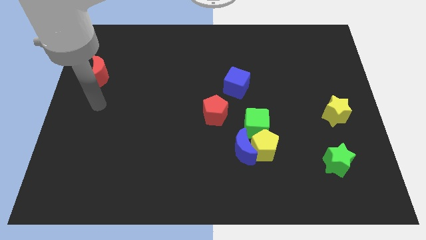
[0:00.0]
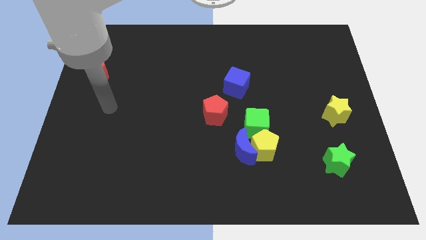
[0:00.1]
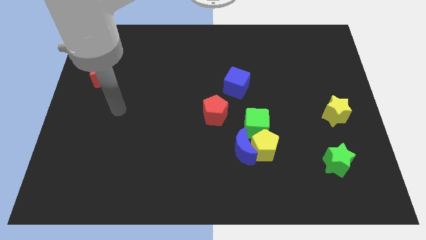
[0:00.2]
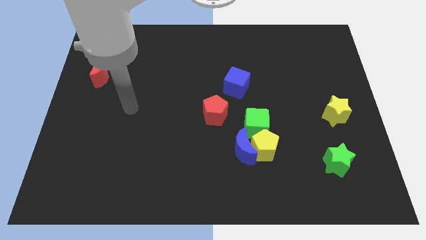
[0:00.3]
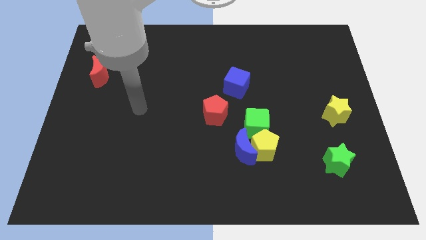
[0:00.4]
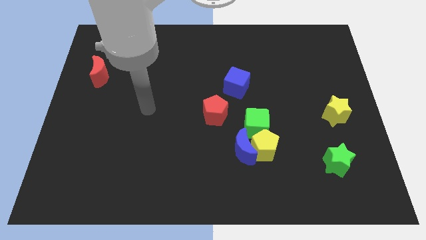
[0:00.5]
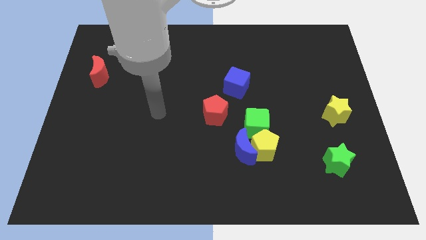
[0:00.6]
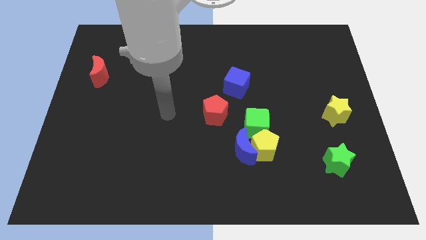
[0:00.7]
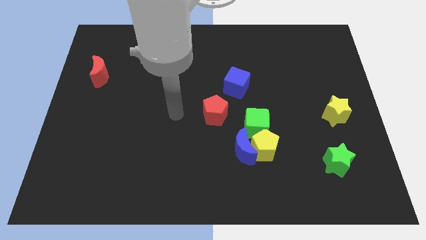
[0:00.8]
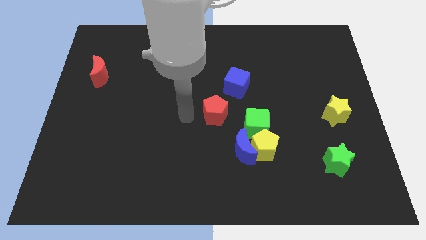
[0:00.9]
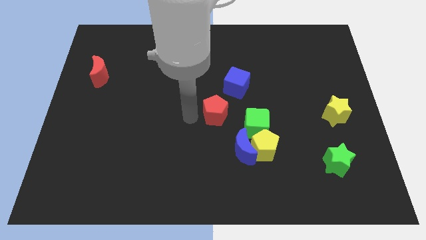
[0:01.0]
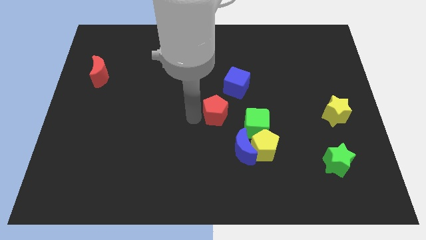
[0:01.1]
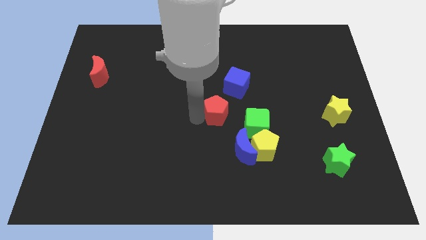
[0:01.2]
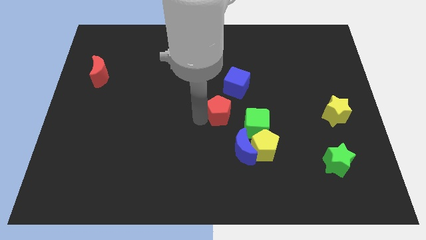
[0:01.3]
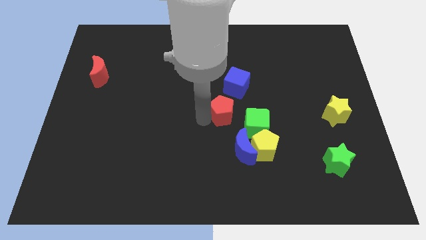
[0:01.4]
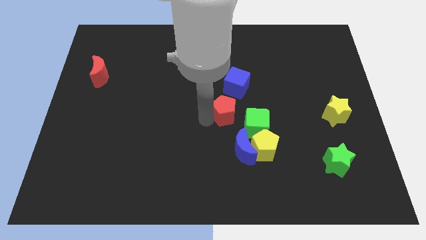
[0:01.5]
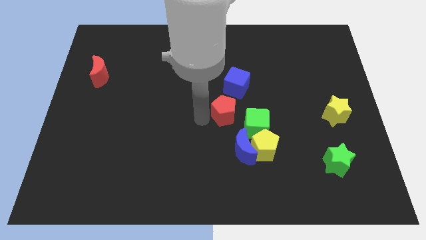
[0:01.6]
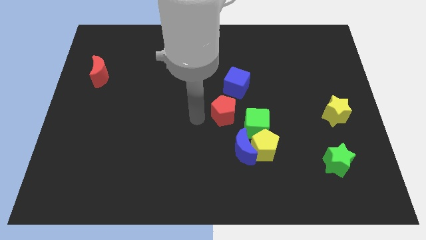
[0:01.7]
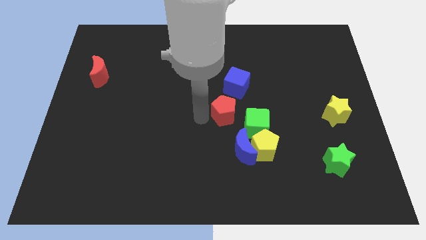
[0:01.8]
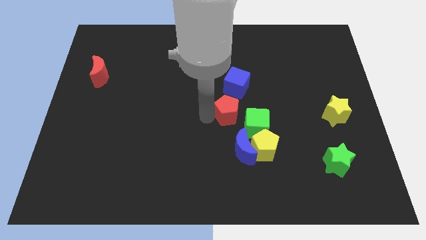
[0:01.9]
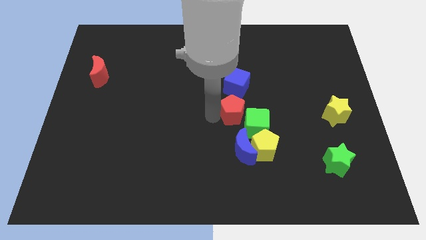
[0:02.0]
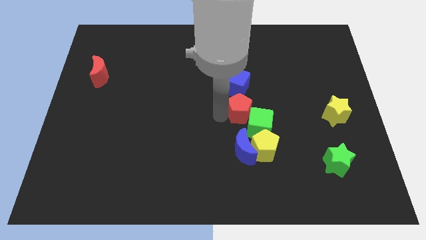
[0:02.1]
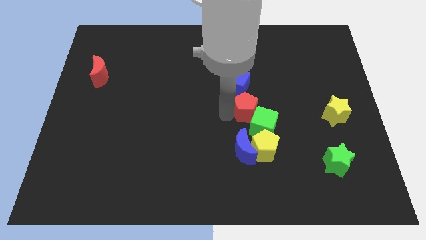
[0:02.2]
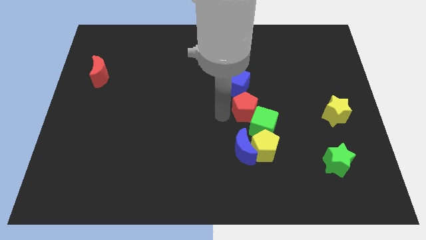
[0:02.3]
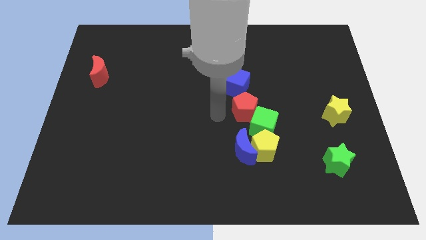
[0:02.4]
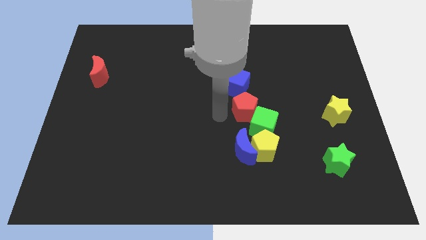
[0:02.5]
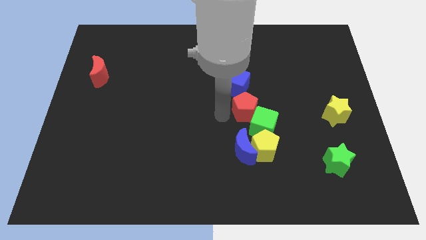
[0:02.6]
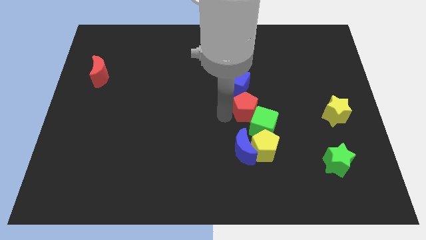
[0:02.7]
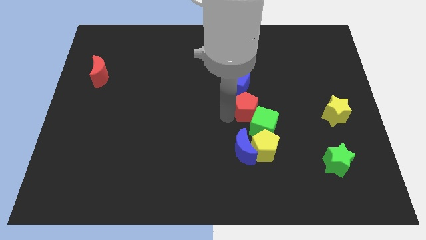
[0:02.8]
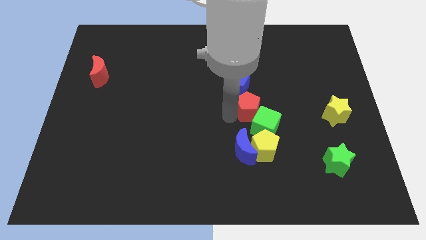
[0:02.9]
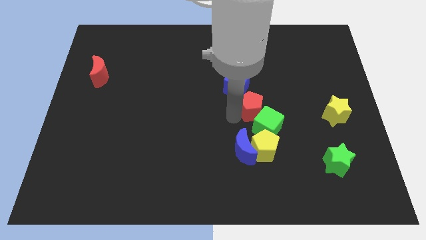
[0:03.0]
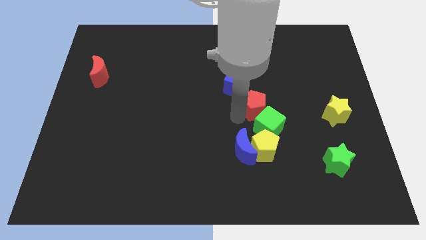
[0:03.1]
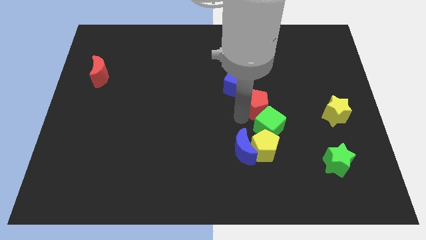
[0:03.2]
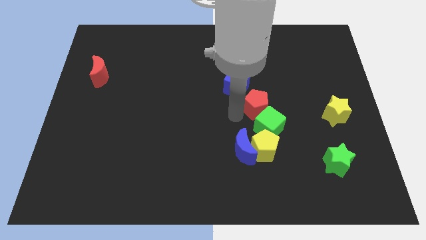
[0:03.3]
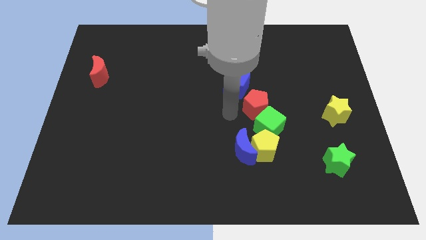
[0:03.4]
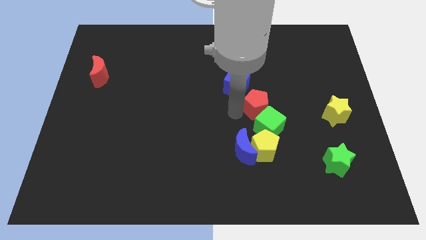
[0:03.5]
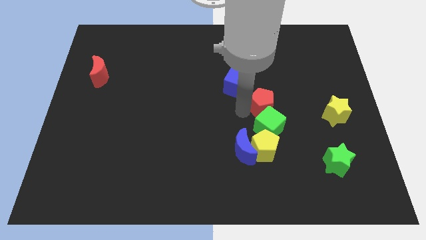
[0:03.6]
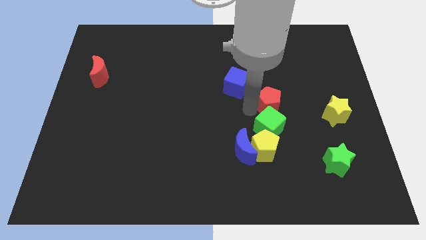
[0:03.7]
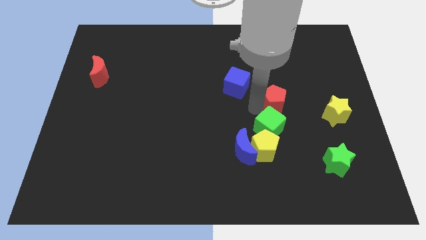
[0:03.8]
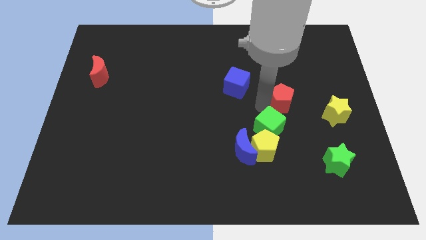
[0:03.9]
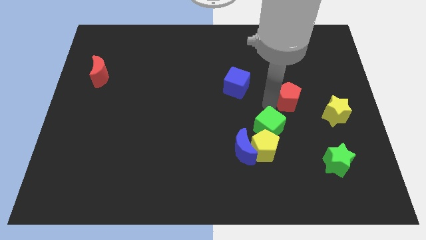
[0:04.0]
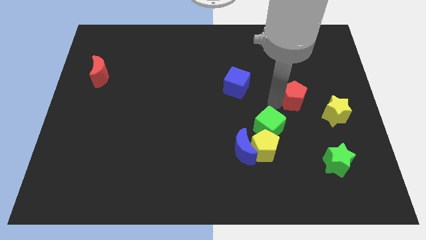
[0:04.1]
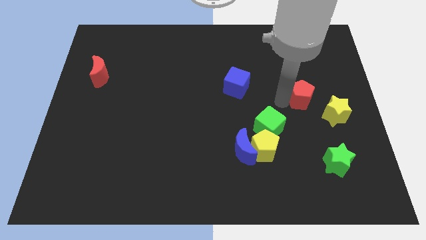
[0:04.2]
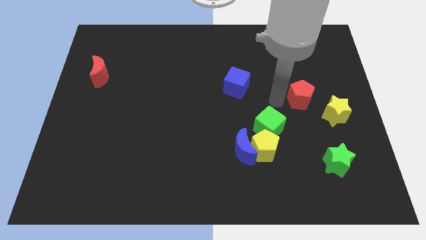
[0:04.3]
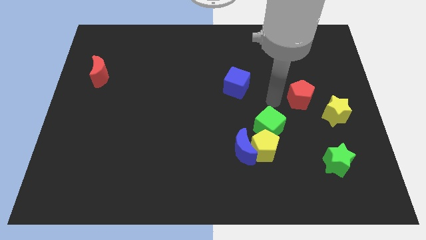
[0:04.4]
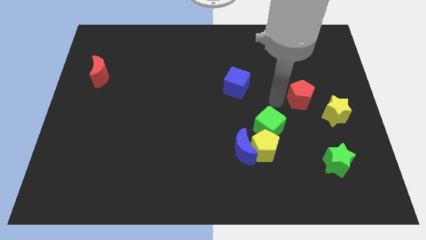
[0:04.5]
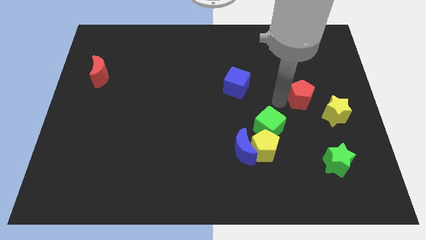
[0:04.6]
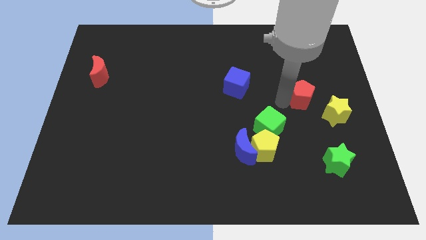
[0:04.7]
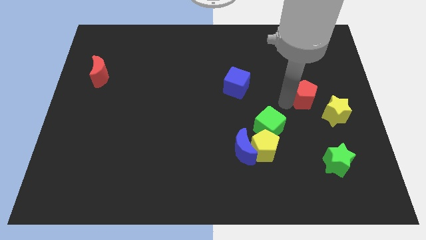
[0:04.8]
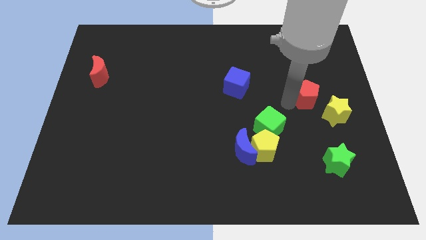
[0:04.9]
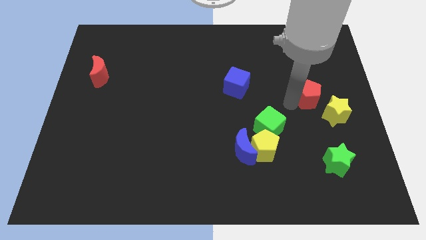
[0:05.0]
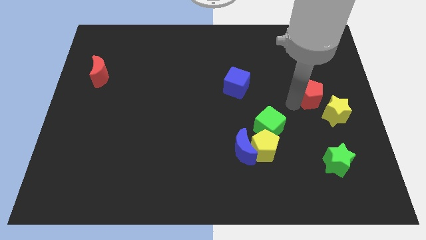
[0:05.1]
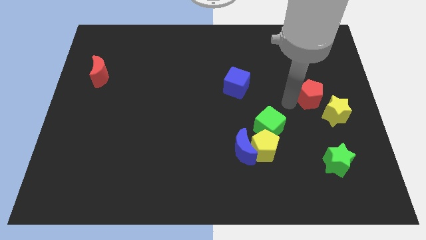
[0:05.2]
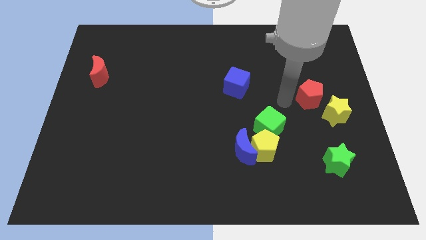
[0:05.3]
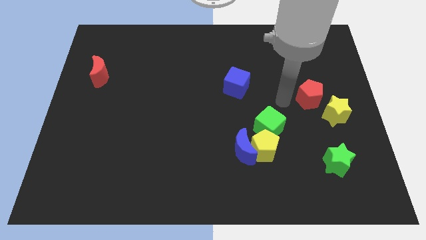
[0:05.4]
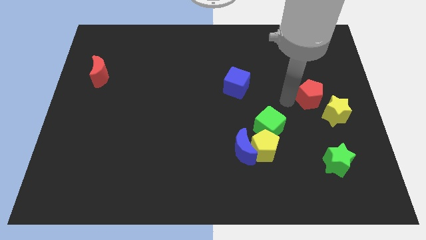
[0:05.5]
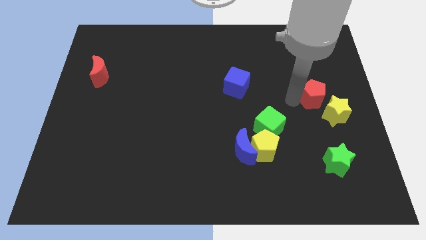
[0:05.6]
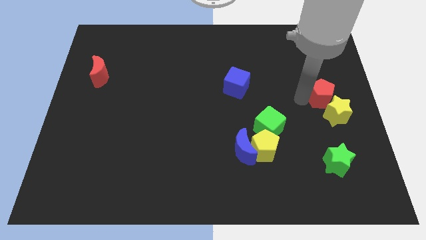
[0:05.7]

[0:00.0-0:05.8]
put the red pentagon to the right side
